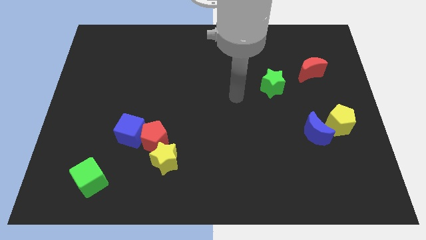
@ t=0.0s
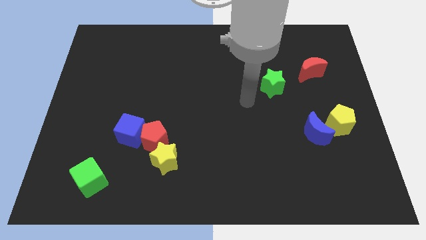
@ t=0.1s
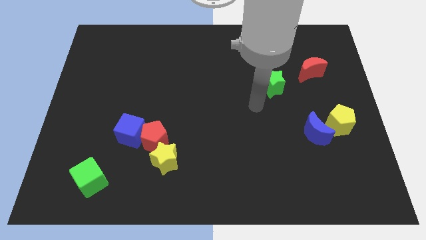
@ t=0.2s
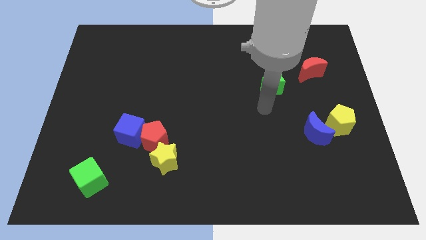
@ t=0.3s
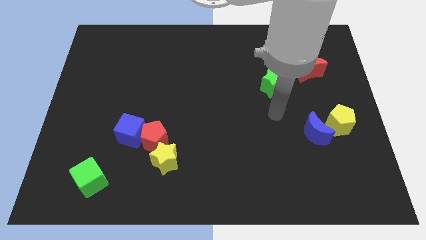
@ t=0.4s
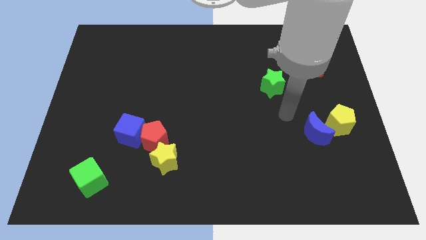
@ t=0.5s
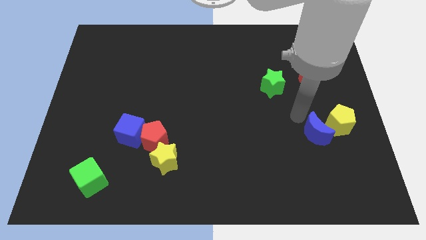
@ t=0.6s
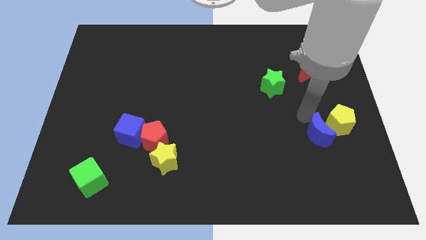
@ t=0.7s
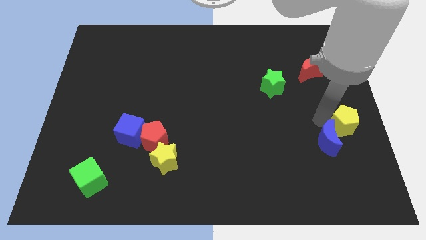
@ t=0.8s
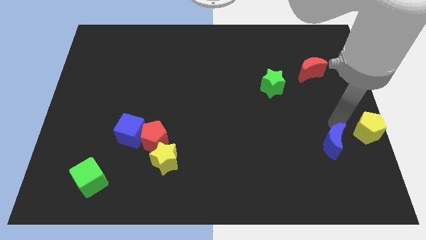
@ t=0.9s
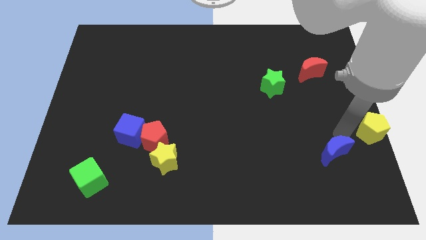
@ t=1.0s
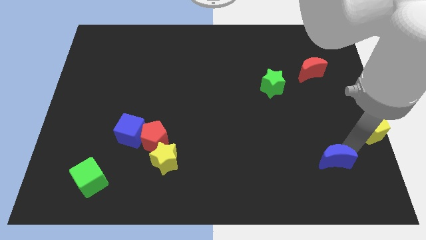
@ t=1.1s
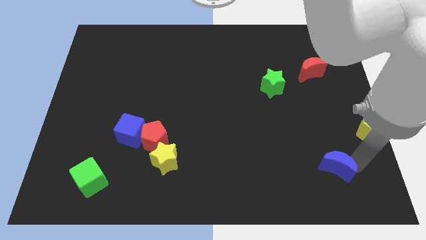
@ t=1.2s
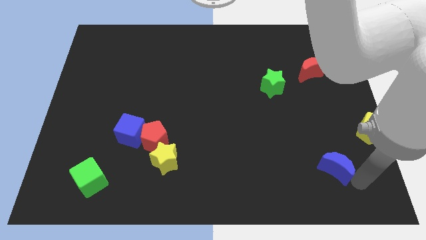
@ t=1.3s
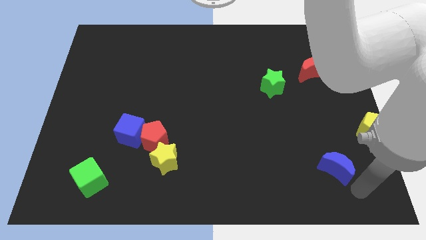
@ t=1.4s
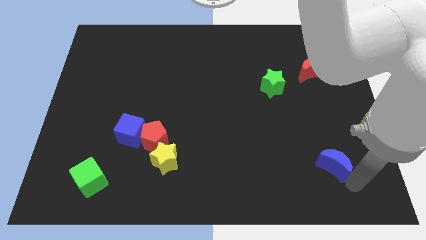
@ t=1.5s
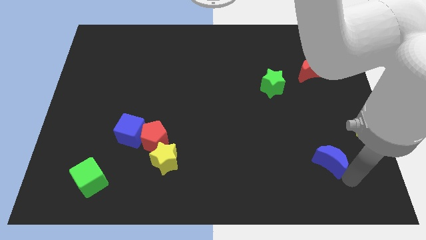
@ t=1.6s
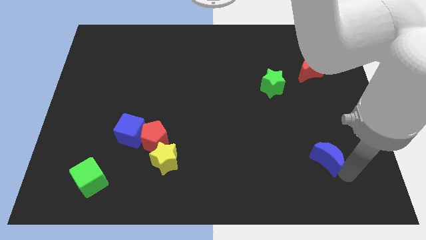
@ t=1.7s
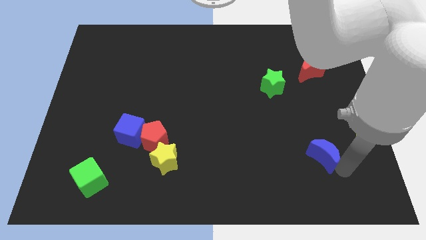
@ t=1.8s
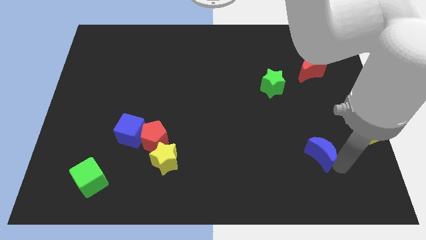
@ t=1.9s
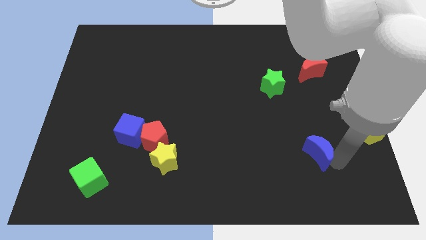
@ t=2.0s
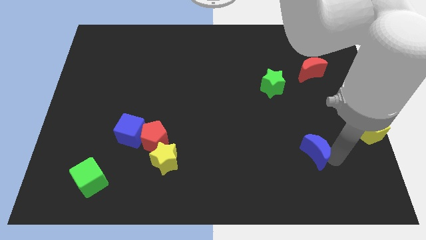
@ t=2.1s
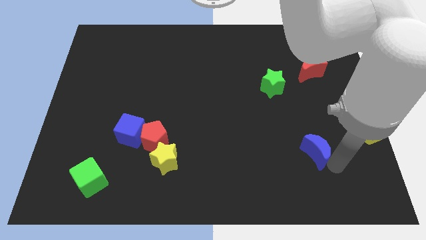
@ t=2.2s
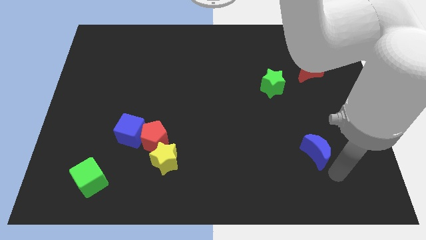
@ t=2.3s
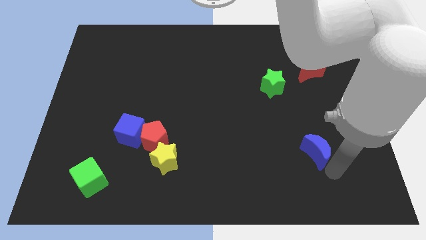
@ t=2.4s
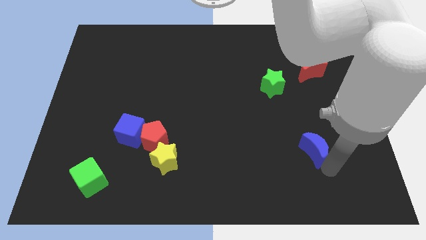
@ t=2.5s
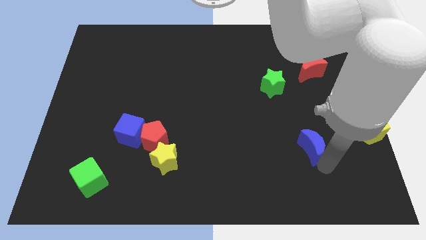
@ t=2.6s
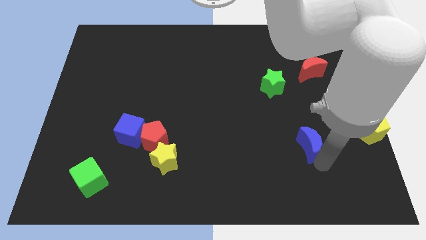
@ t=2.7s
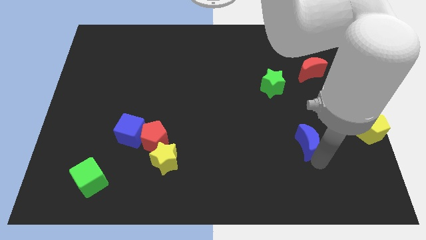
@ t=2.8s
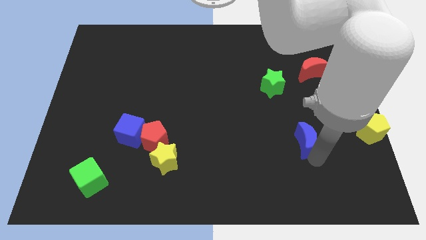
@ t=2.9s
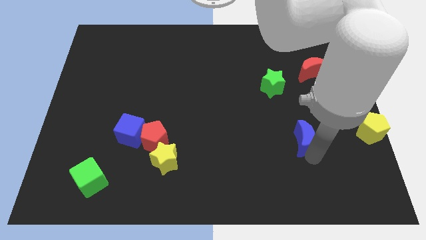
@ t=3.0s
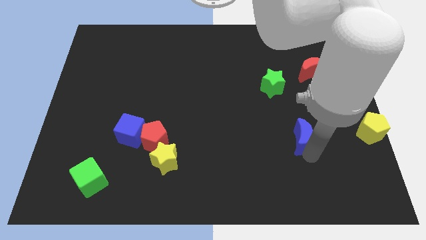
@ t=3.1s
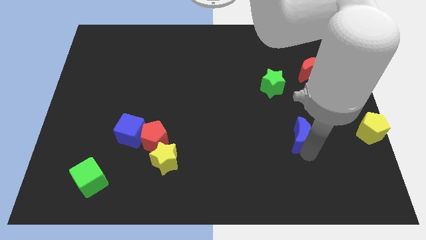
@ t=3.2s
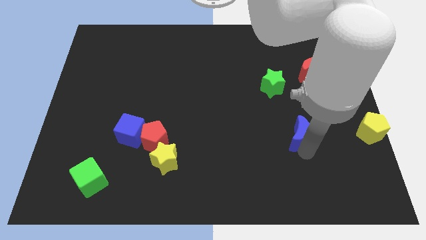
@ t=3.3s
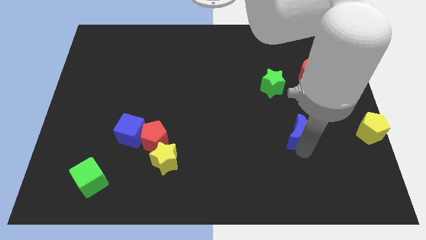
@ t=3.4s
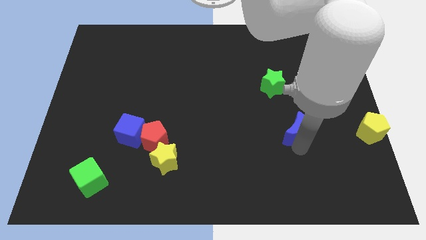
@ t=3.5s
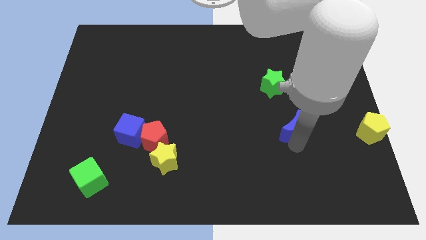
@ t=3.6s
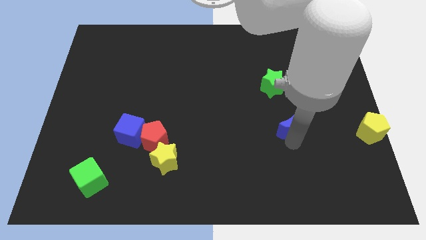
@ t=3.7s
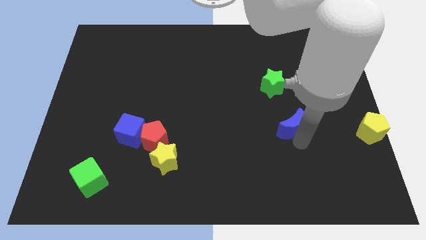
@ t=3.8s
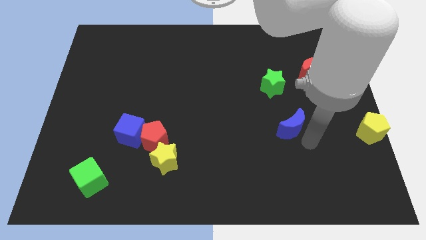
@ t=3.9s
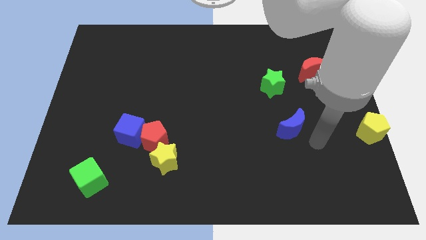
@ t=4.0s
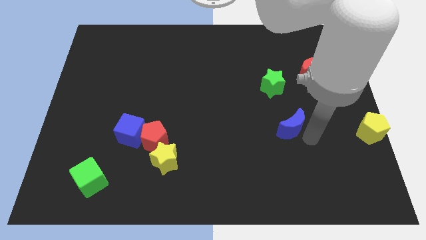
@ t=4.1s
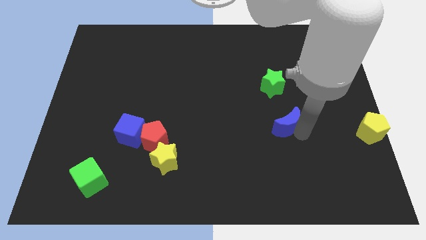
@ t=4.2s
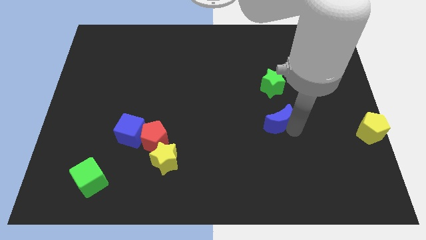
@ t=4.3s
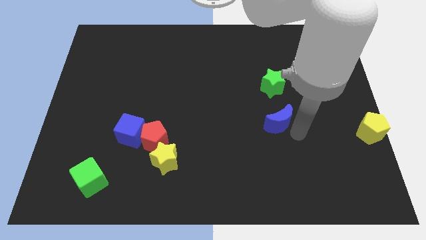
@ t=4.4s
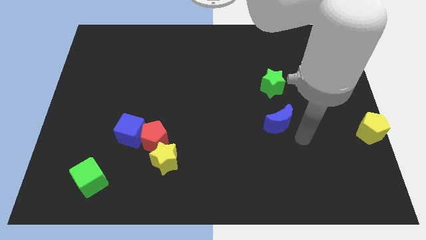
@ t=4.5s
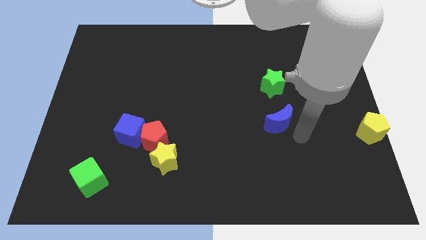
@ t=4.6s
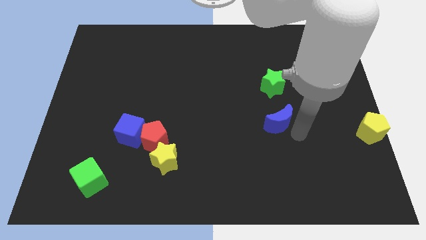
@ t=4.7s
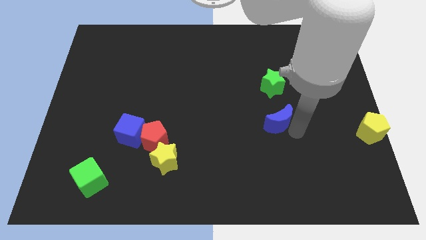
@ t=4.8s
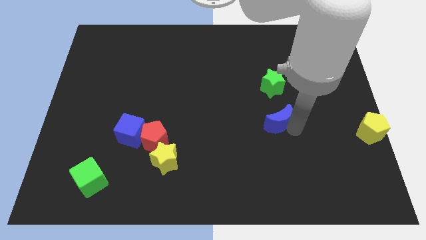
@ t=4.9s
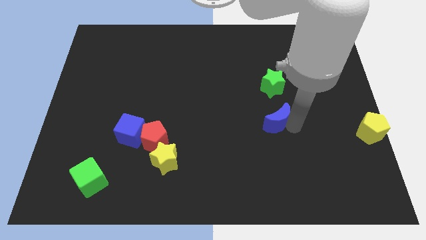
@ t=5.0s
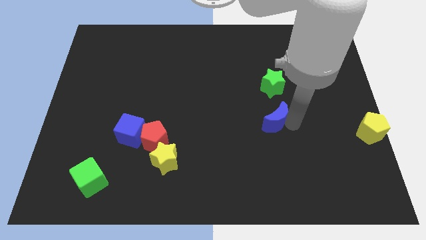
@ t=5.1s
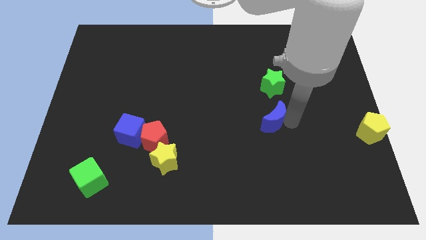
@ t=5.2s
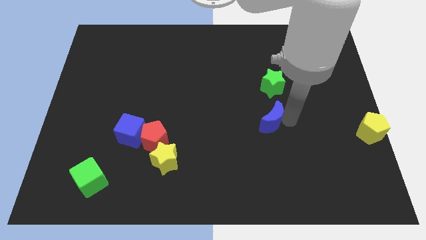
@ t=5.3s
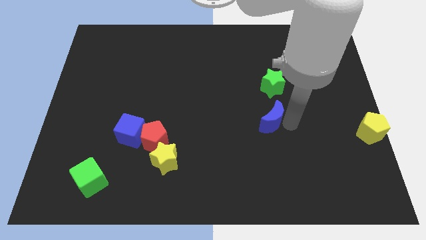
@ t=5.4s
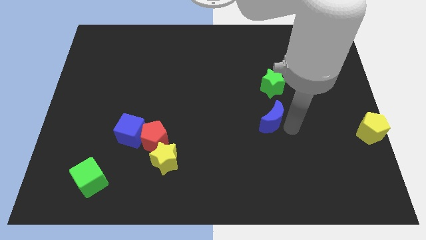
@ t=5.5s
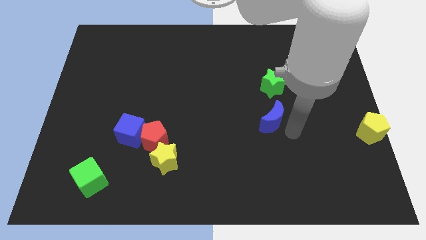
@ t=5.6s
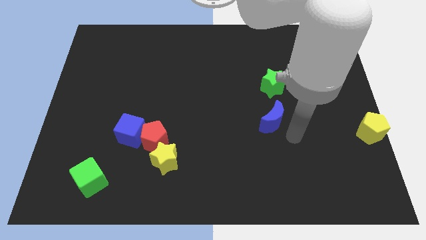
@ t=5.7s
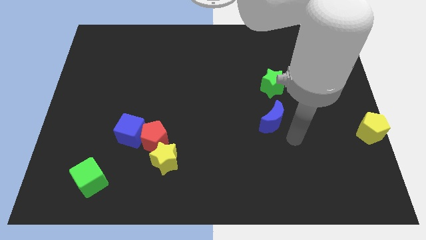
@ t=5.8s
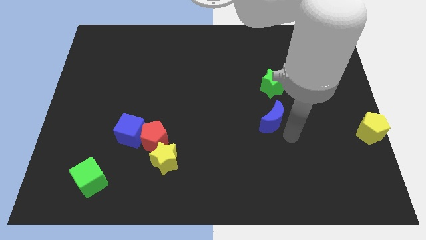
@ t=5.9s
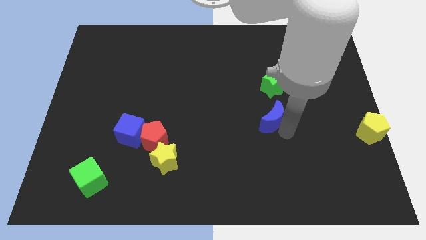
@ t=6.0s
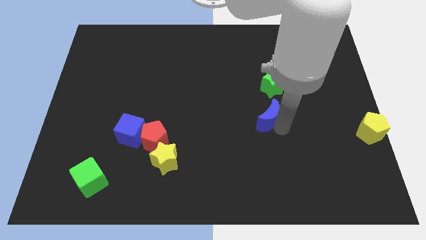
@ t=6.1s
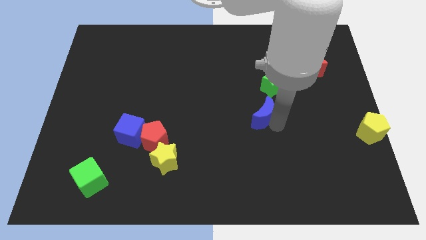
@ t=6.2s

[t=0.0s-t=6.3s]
slide the blue moon to the center

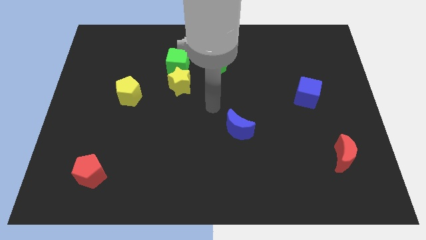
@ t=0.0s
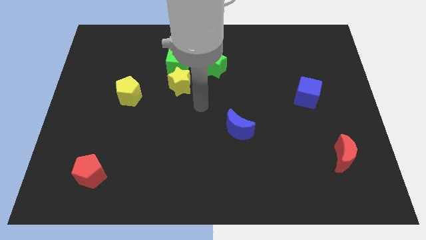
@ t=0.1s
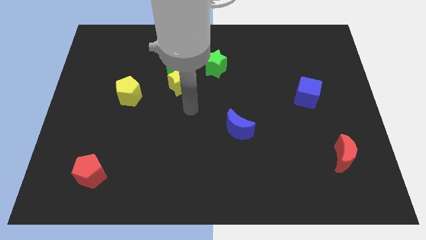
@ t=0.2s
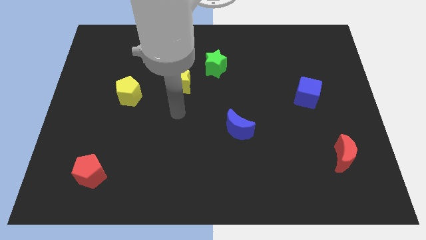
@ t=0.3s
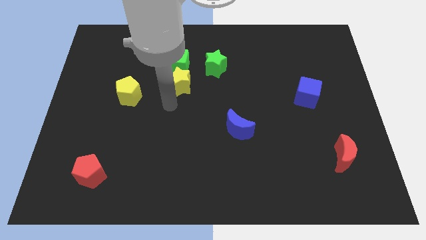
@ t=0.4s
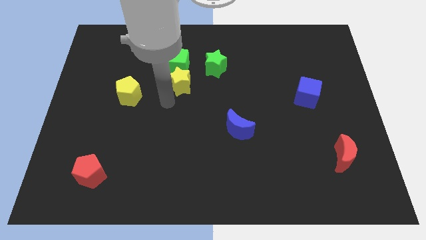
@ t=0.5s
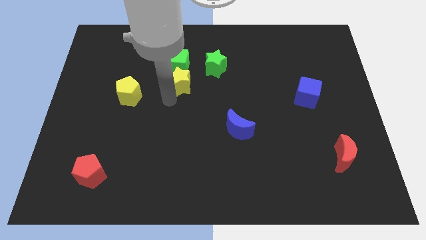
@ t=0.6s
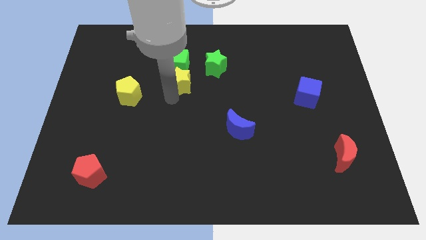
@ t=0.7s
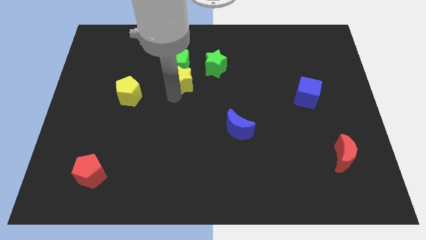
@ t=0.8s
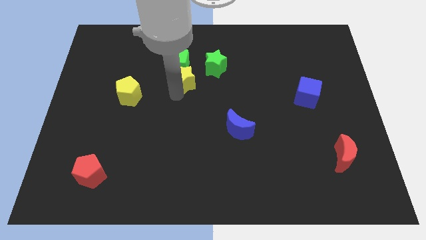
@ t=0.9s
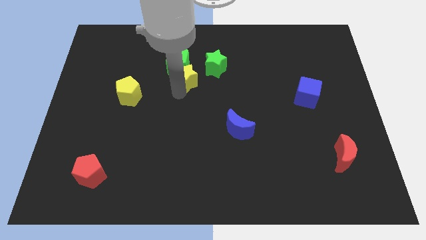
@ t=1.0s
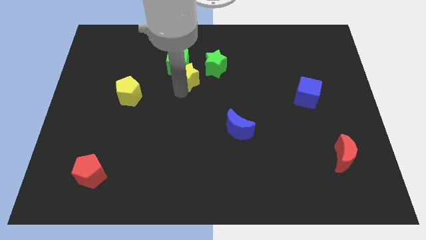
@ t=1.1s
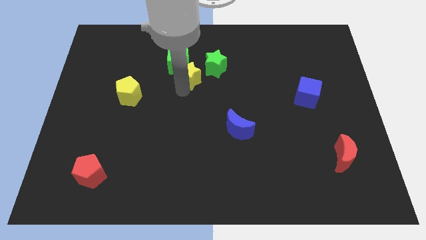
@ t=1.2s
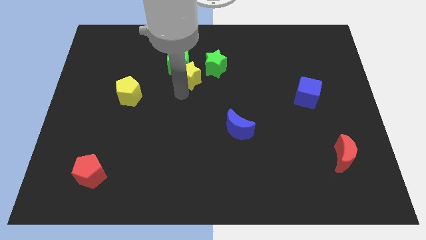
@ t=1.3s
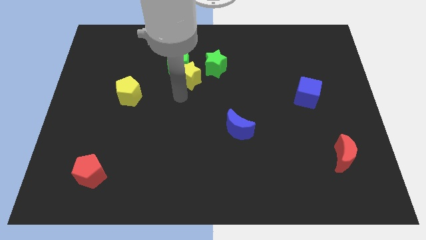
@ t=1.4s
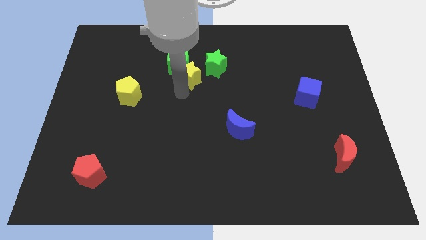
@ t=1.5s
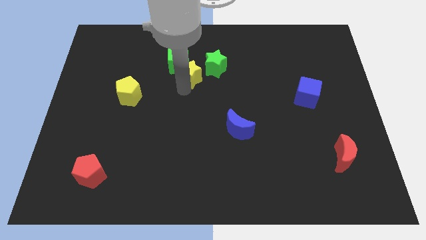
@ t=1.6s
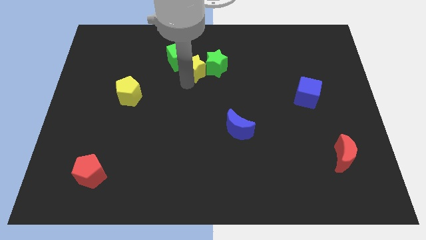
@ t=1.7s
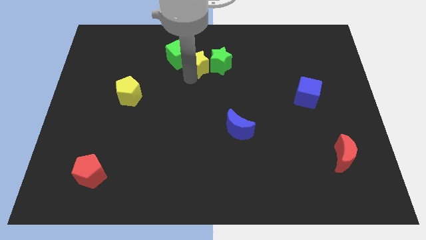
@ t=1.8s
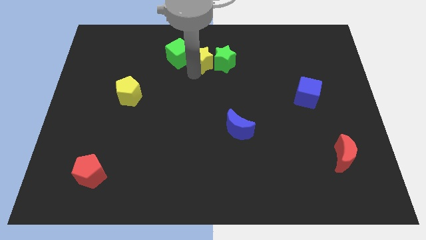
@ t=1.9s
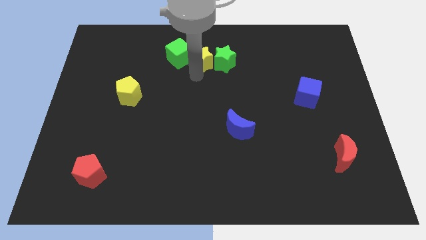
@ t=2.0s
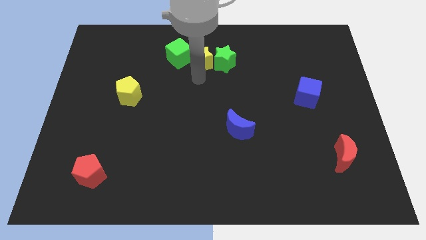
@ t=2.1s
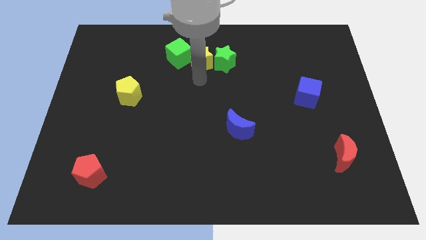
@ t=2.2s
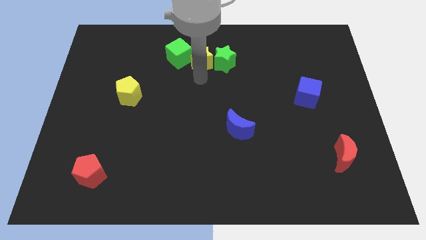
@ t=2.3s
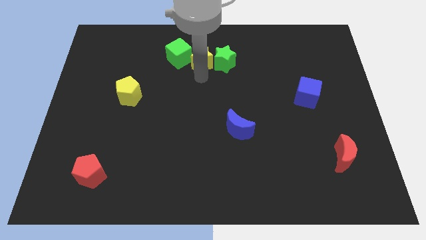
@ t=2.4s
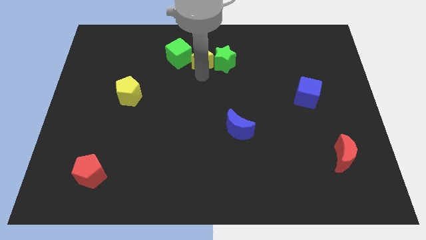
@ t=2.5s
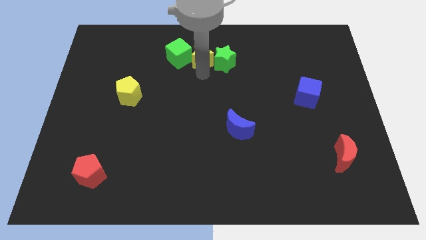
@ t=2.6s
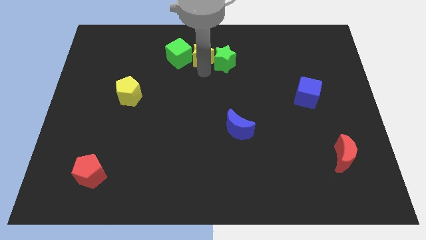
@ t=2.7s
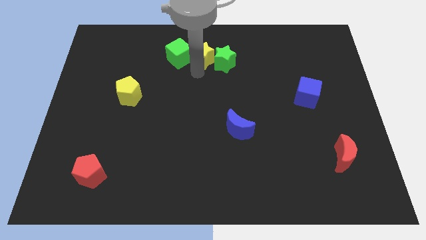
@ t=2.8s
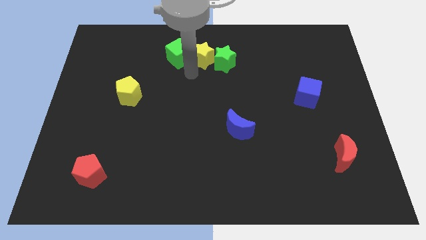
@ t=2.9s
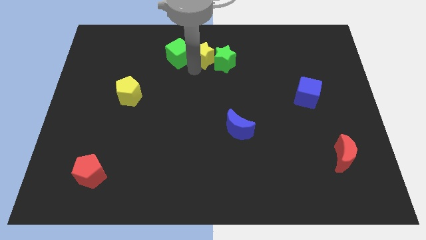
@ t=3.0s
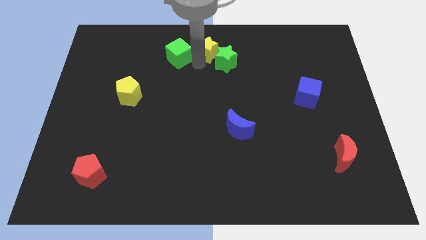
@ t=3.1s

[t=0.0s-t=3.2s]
push the yellow star to the top side
